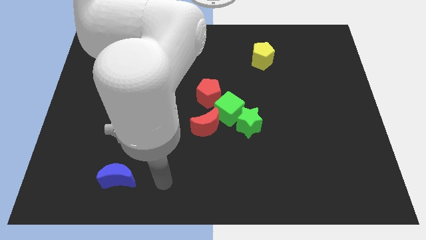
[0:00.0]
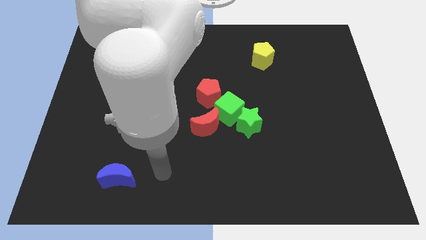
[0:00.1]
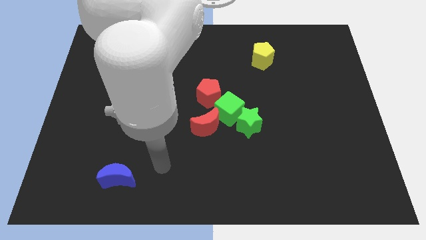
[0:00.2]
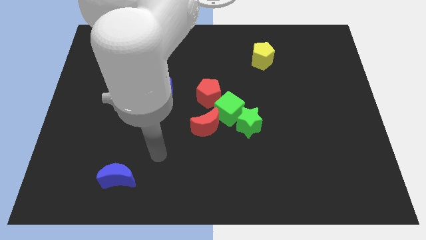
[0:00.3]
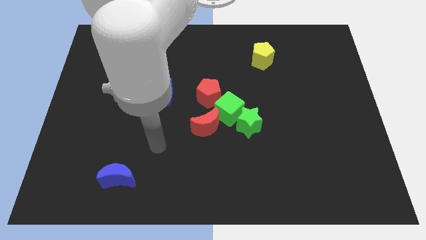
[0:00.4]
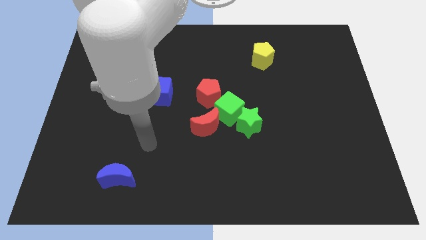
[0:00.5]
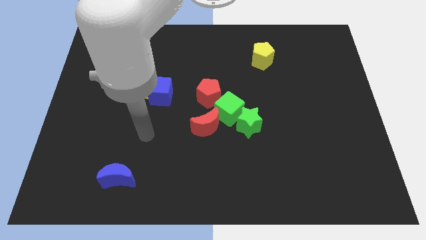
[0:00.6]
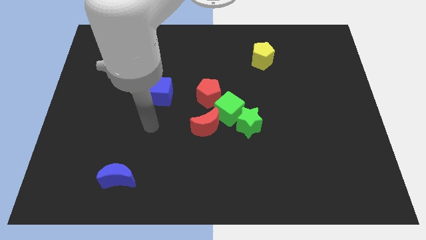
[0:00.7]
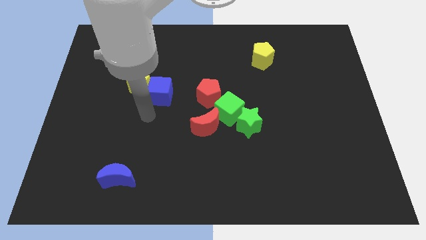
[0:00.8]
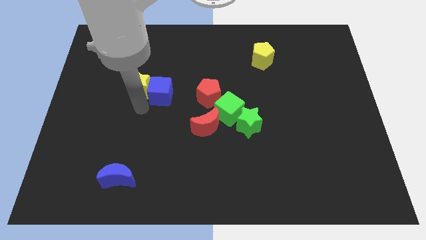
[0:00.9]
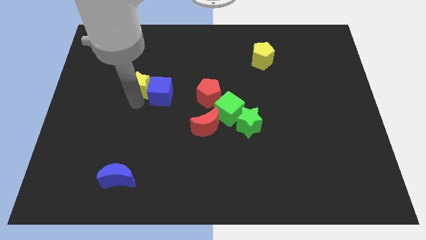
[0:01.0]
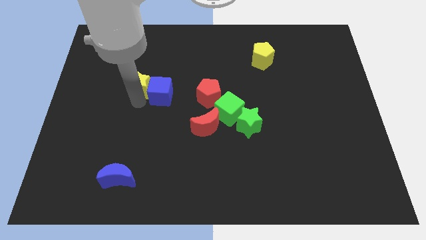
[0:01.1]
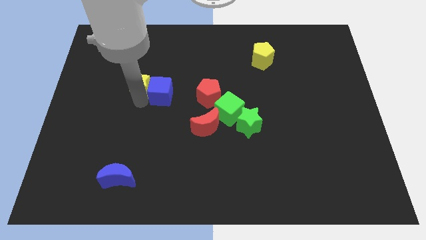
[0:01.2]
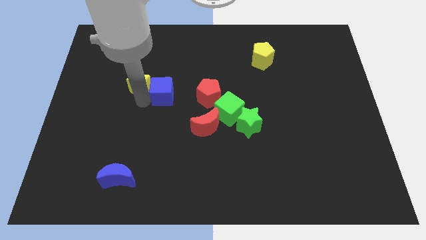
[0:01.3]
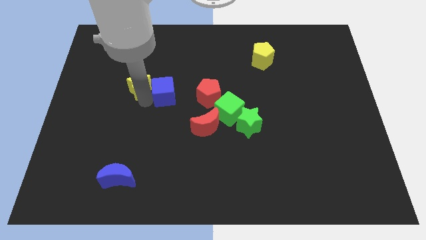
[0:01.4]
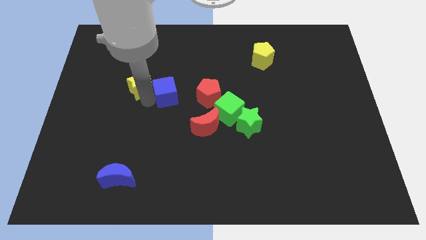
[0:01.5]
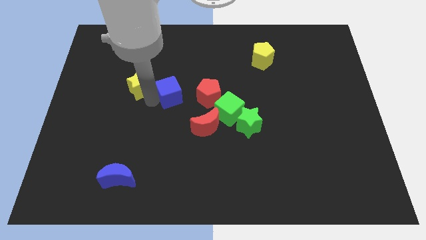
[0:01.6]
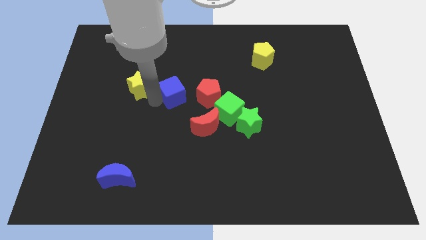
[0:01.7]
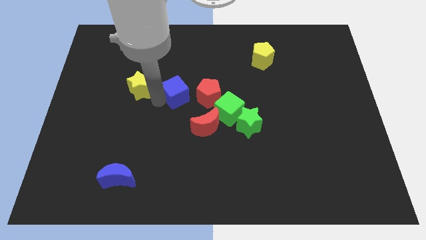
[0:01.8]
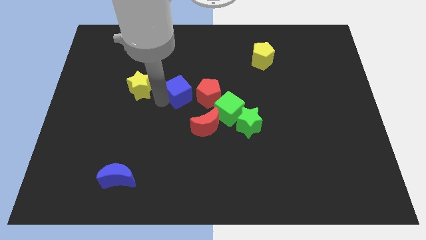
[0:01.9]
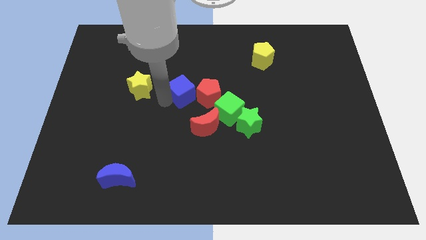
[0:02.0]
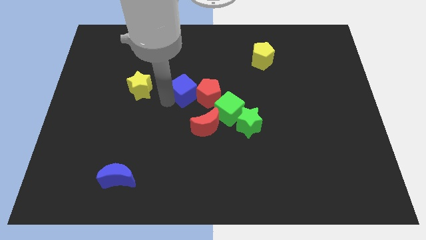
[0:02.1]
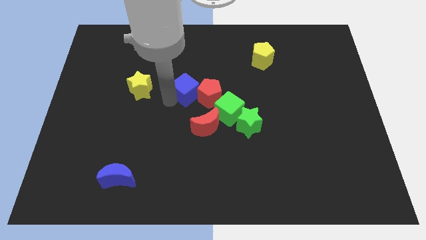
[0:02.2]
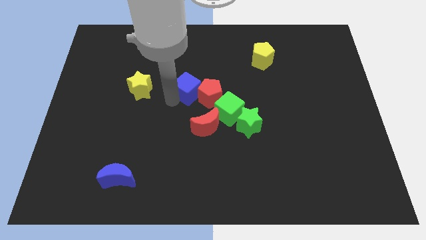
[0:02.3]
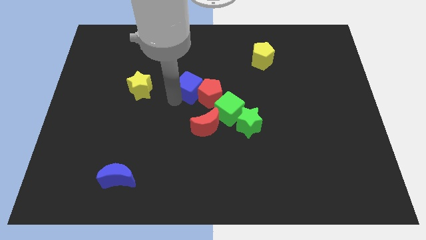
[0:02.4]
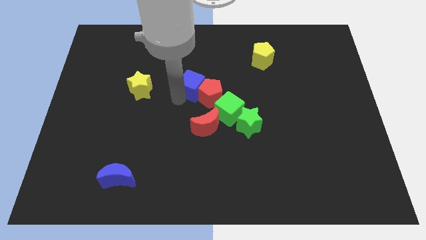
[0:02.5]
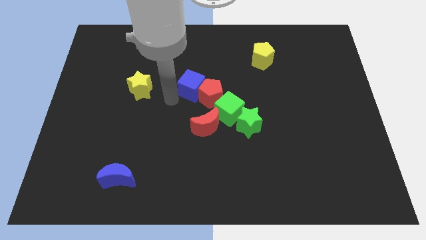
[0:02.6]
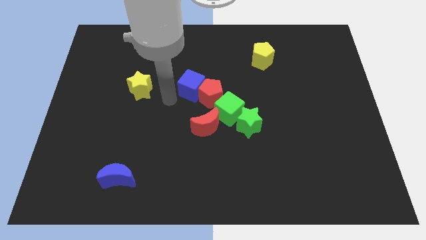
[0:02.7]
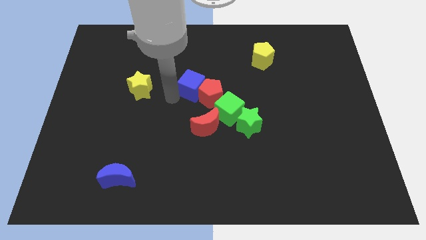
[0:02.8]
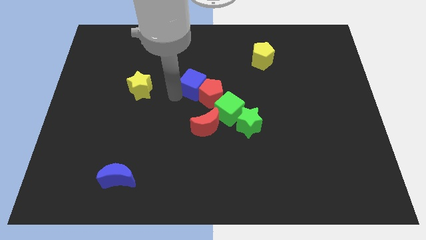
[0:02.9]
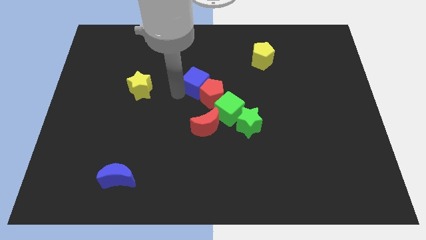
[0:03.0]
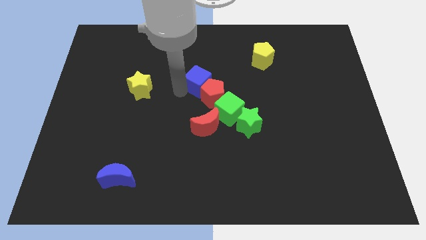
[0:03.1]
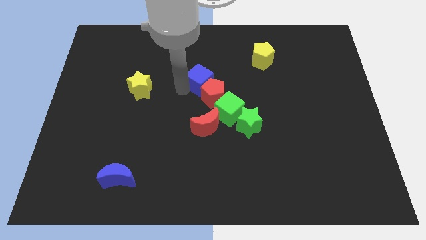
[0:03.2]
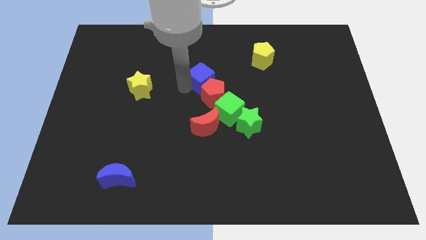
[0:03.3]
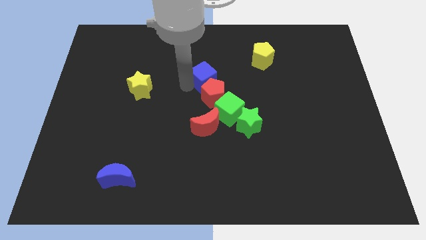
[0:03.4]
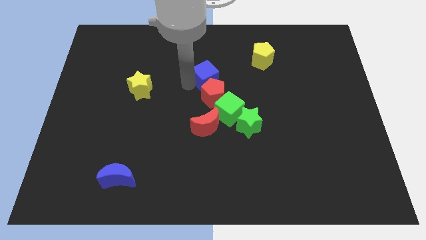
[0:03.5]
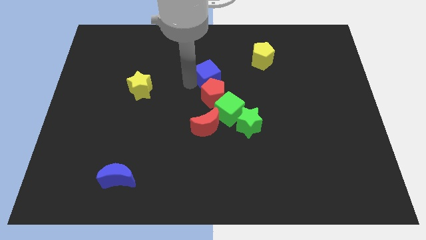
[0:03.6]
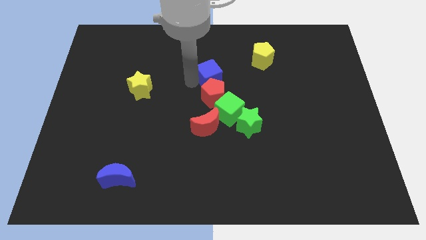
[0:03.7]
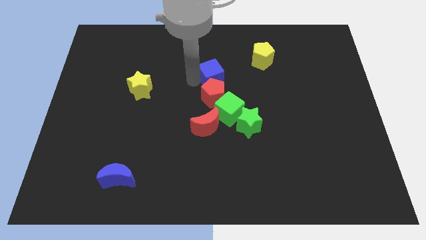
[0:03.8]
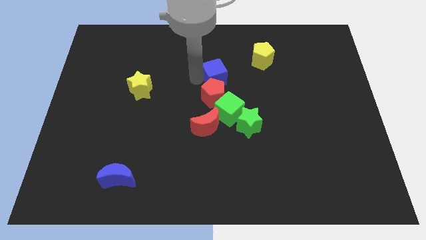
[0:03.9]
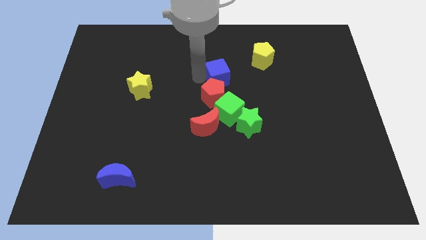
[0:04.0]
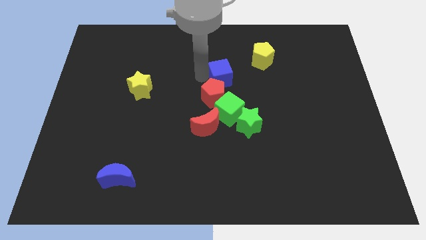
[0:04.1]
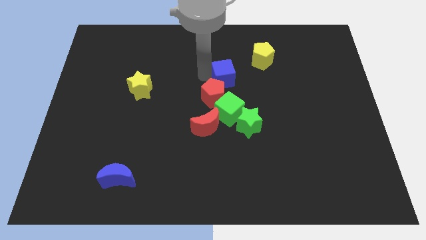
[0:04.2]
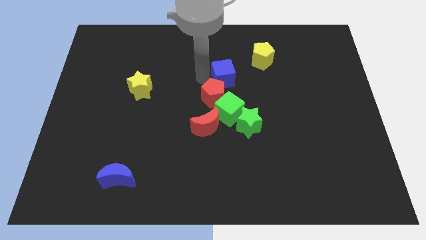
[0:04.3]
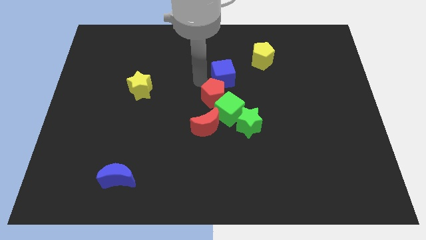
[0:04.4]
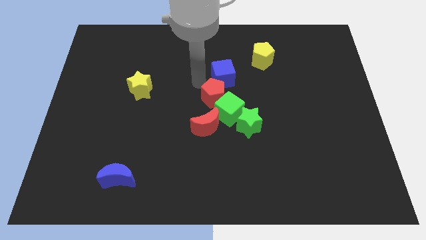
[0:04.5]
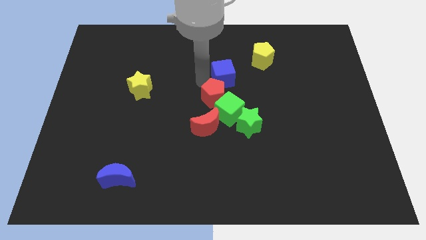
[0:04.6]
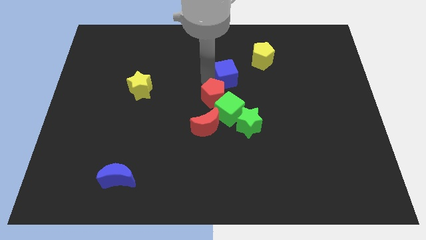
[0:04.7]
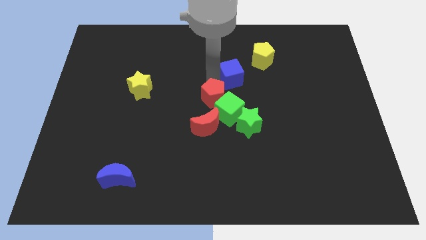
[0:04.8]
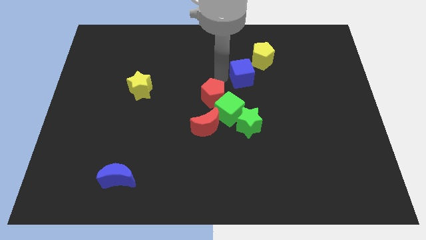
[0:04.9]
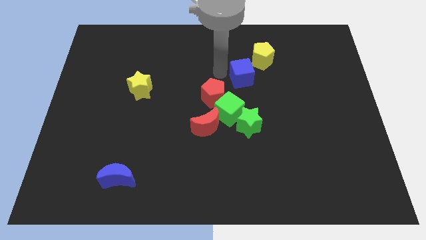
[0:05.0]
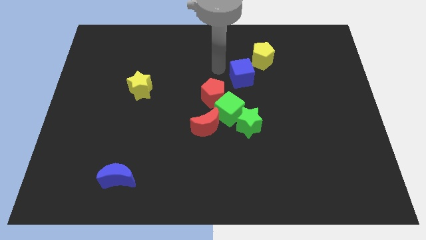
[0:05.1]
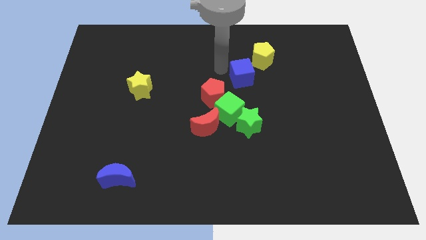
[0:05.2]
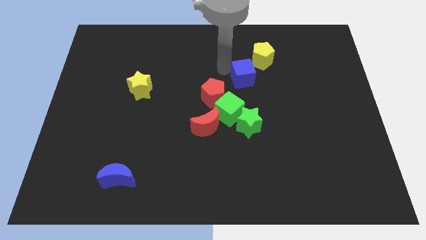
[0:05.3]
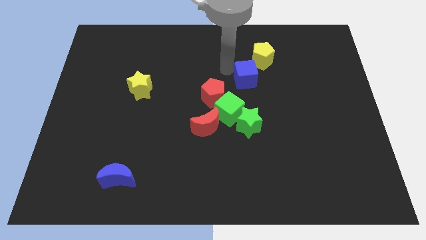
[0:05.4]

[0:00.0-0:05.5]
push the blue cube right

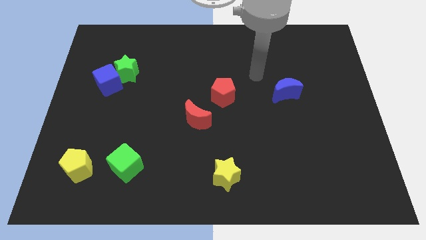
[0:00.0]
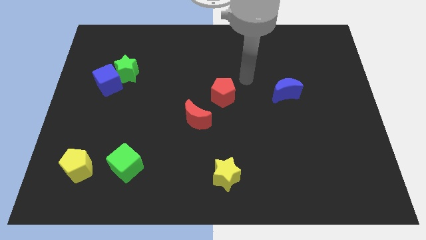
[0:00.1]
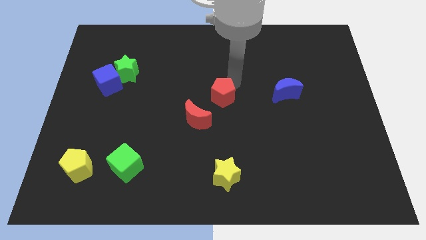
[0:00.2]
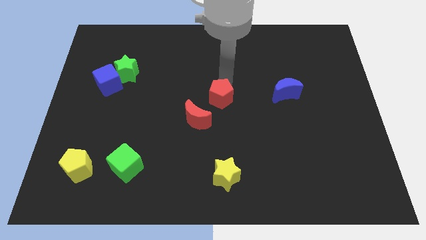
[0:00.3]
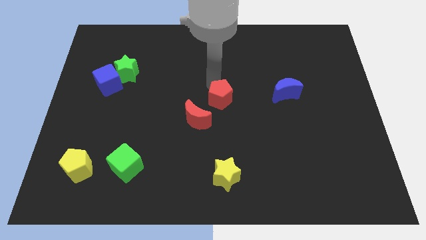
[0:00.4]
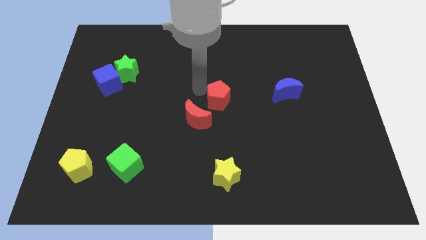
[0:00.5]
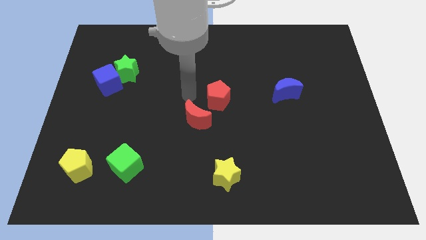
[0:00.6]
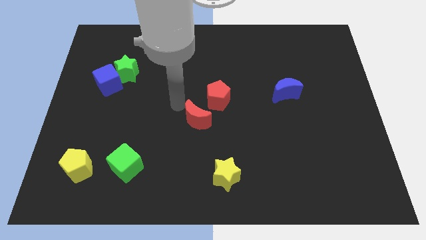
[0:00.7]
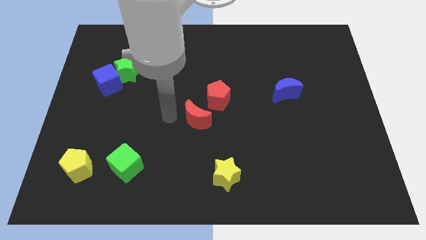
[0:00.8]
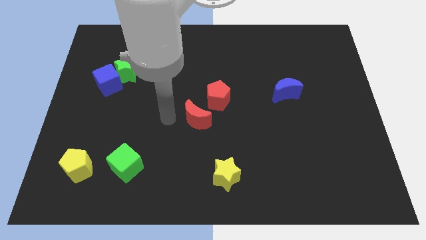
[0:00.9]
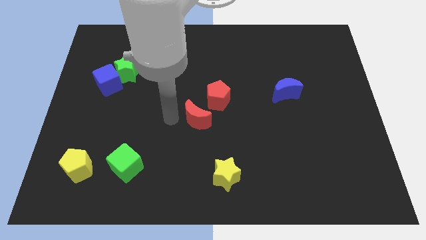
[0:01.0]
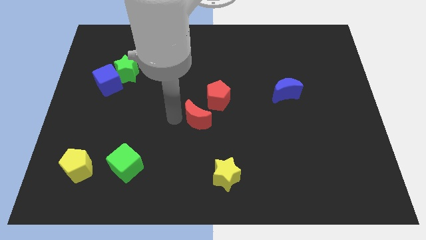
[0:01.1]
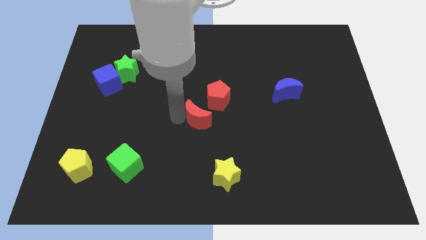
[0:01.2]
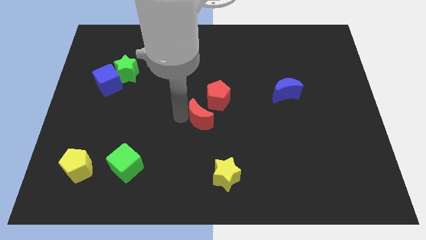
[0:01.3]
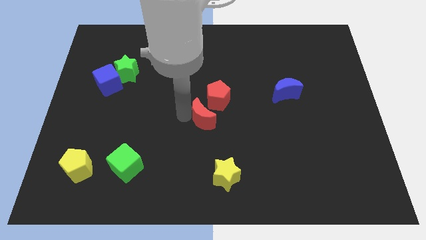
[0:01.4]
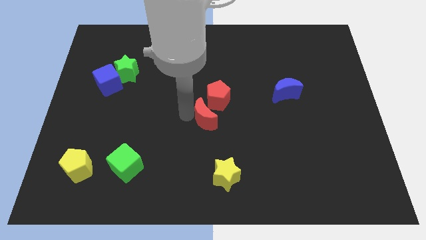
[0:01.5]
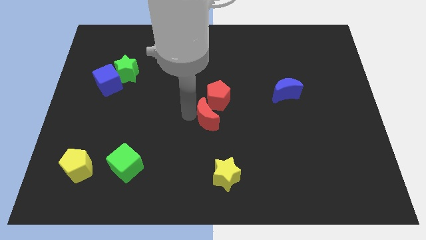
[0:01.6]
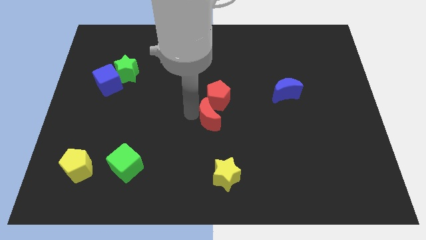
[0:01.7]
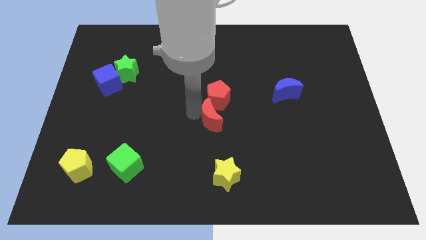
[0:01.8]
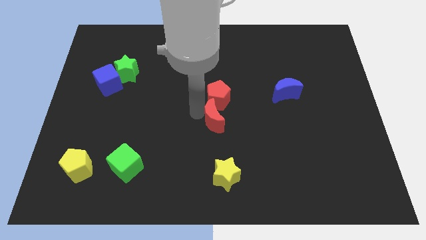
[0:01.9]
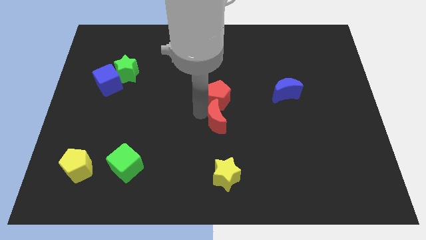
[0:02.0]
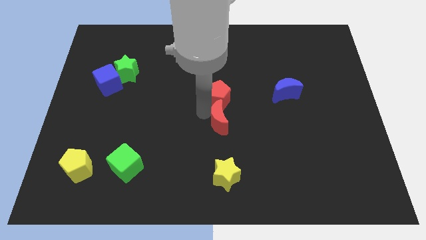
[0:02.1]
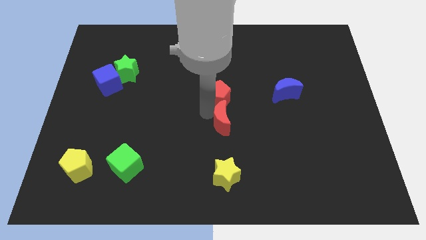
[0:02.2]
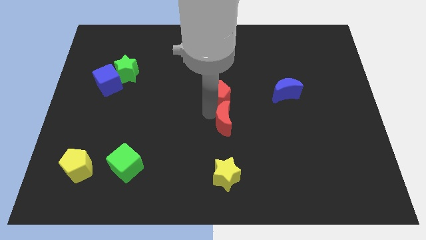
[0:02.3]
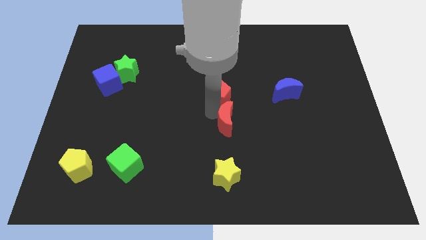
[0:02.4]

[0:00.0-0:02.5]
slightly move the red moon to the right
